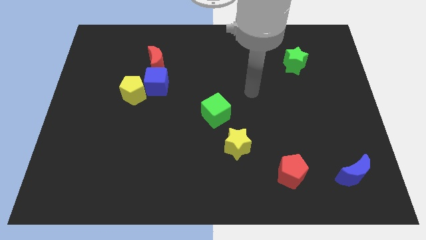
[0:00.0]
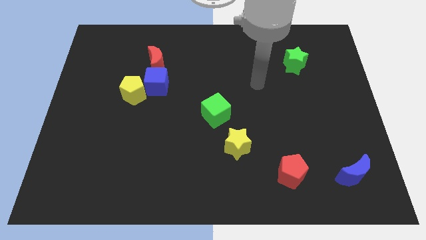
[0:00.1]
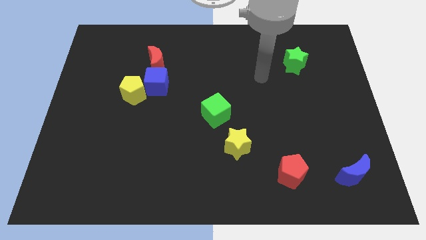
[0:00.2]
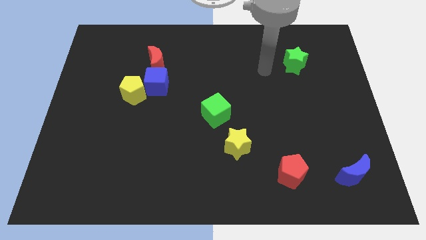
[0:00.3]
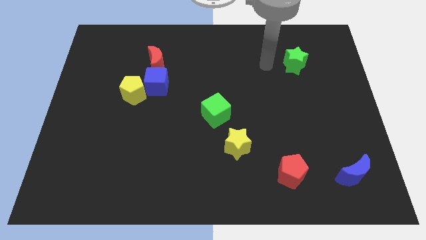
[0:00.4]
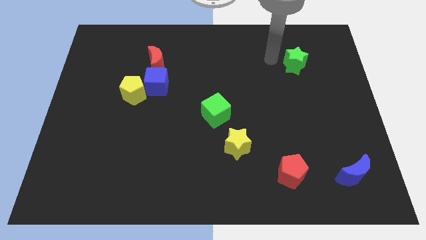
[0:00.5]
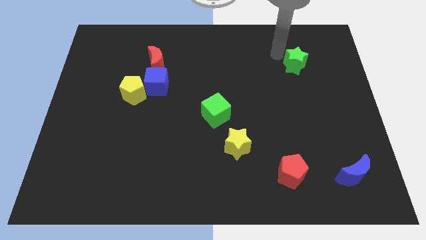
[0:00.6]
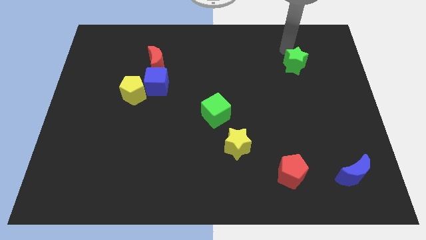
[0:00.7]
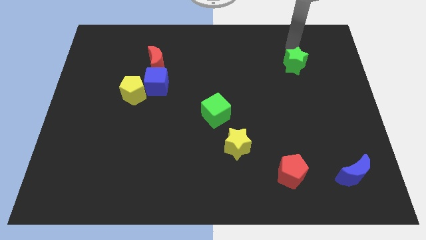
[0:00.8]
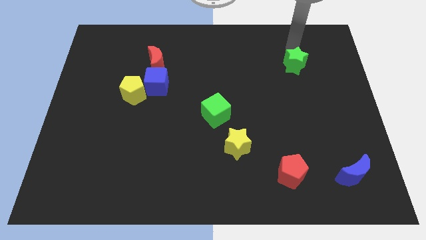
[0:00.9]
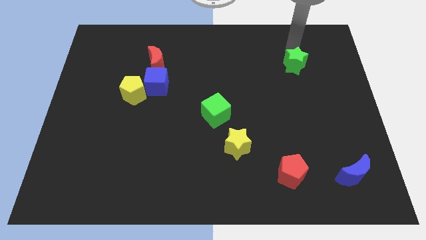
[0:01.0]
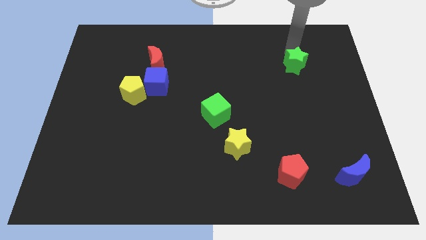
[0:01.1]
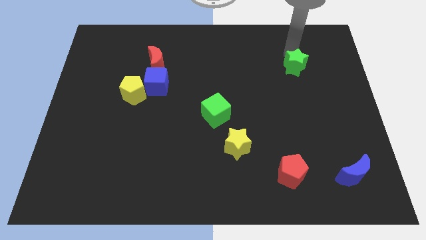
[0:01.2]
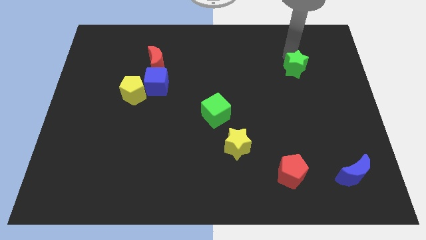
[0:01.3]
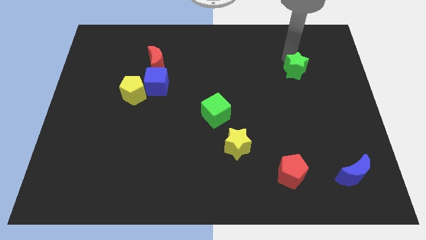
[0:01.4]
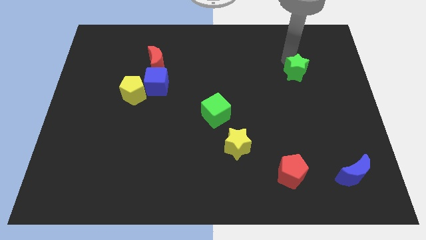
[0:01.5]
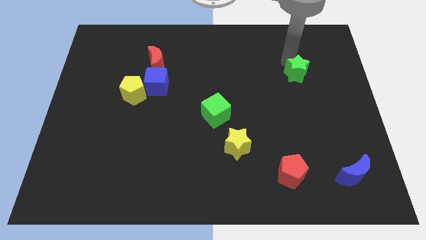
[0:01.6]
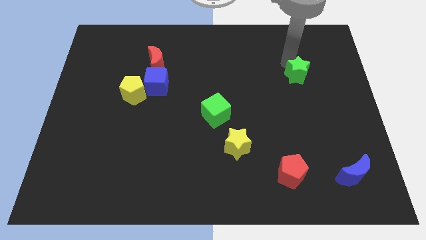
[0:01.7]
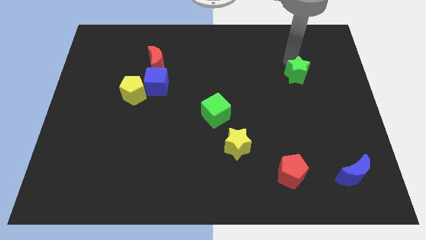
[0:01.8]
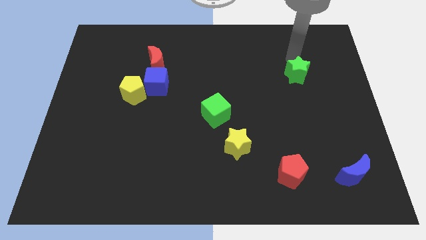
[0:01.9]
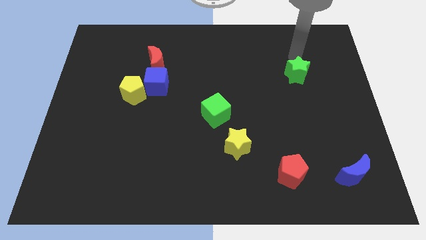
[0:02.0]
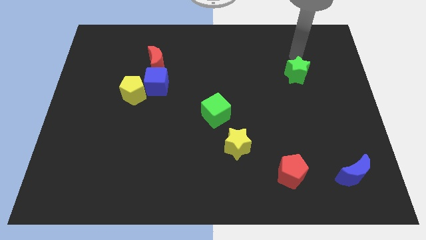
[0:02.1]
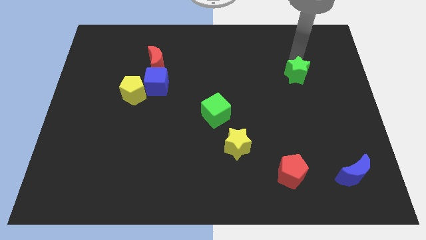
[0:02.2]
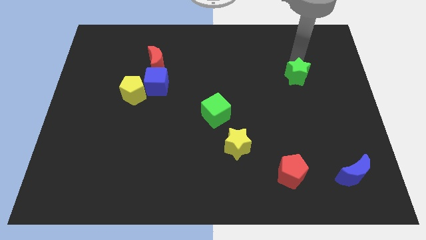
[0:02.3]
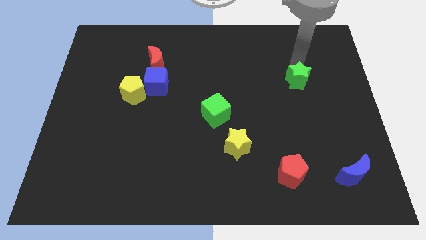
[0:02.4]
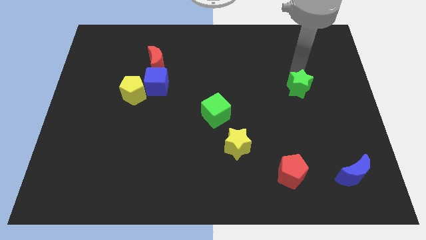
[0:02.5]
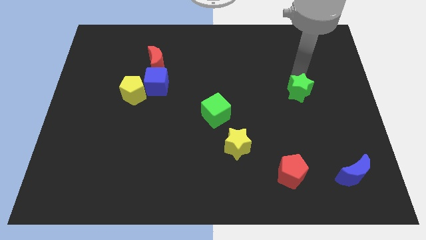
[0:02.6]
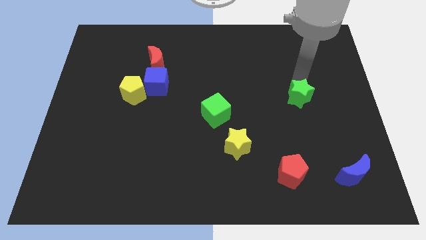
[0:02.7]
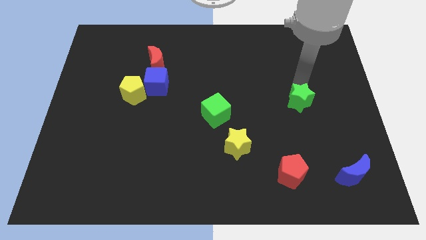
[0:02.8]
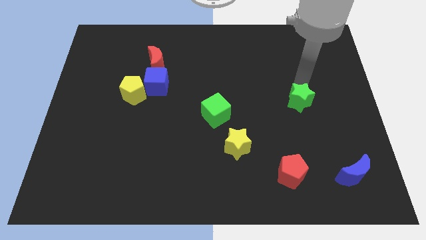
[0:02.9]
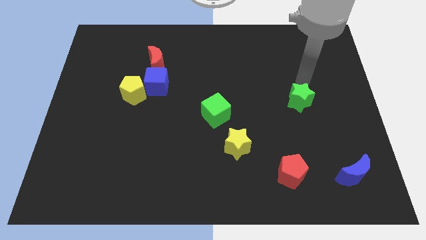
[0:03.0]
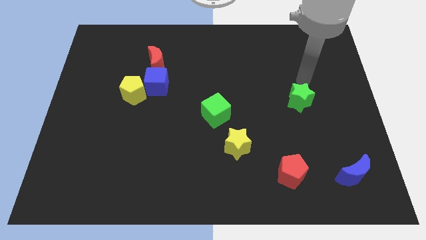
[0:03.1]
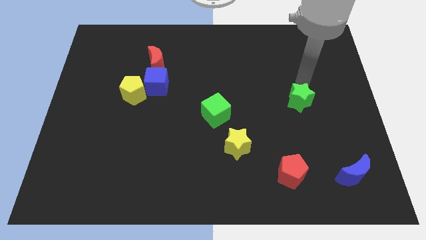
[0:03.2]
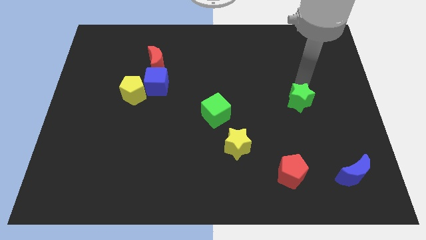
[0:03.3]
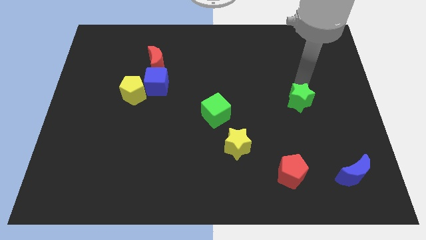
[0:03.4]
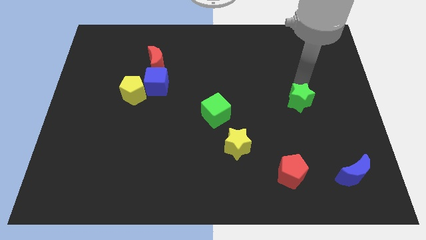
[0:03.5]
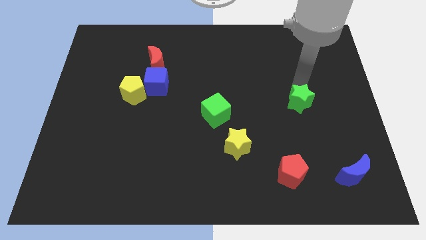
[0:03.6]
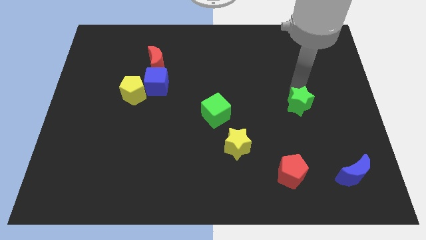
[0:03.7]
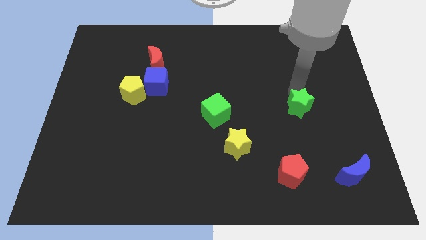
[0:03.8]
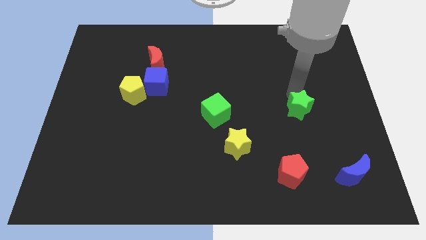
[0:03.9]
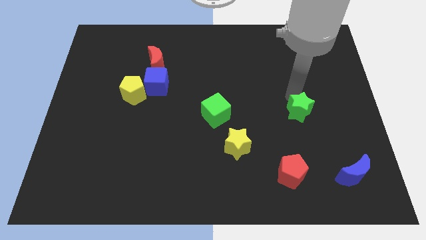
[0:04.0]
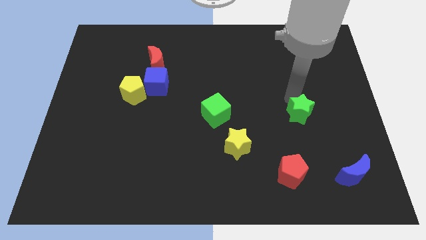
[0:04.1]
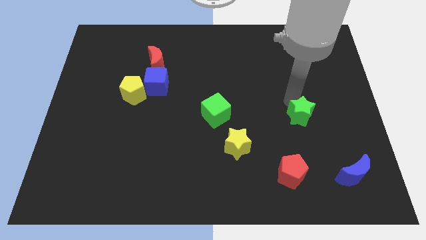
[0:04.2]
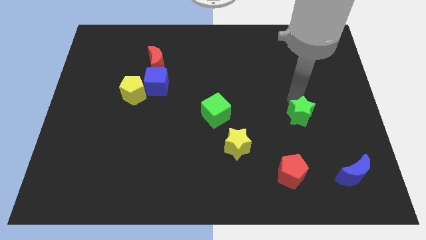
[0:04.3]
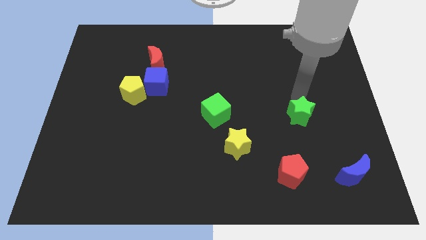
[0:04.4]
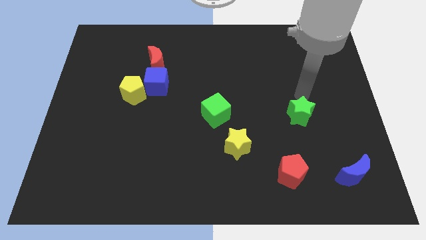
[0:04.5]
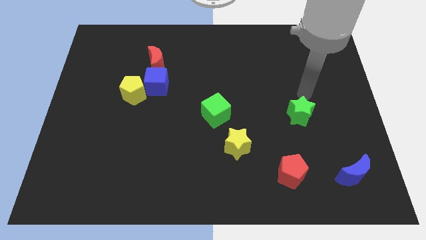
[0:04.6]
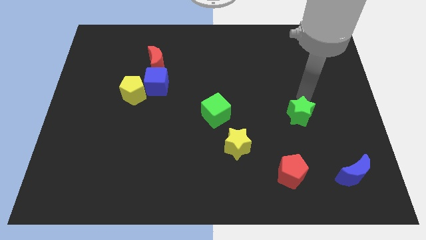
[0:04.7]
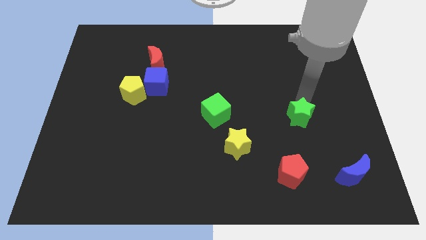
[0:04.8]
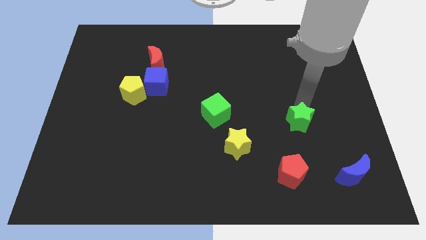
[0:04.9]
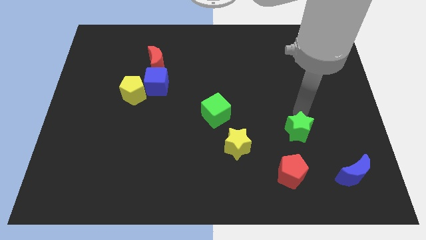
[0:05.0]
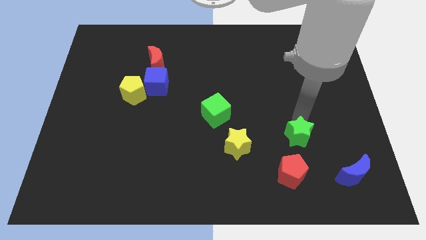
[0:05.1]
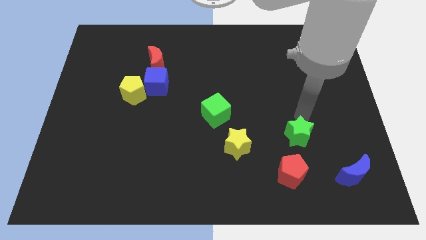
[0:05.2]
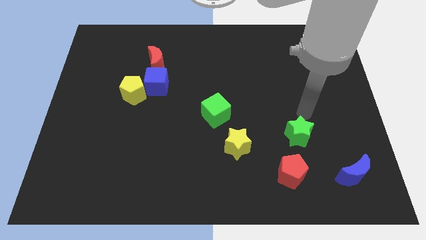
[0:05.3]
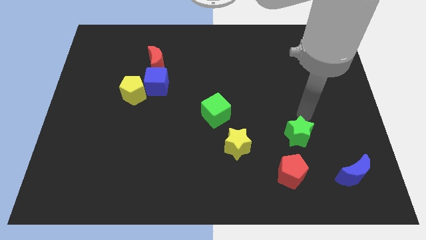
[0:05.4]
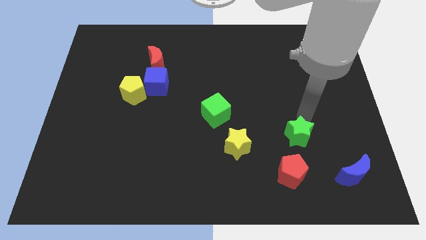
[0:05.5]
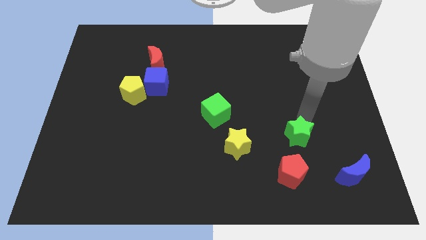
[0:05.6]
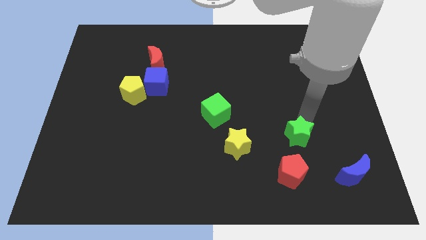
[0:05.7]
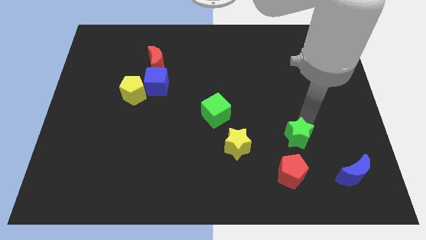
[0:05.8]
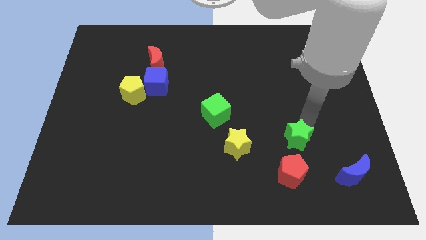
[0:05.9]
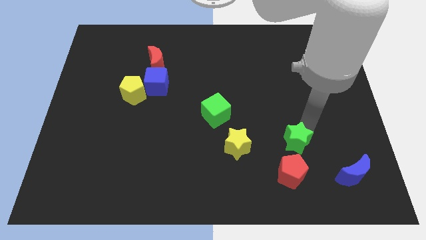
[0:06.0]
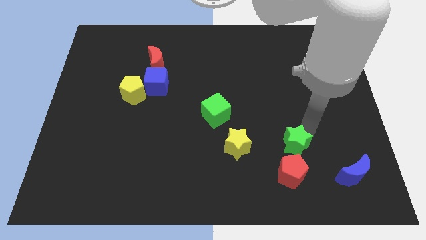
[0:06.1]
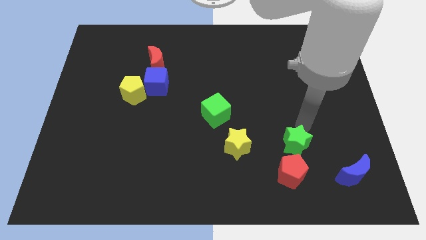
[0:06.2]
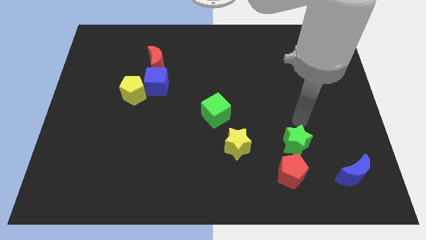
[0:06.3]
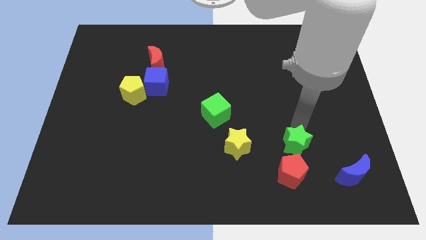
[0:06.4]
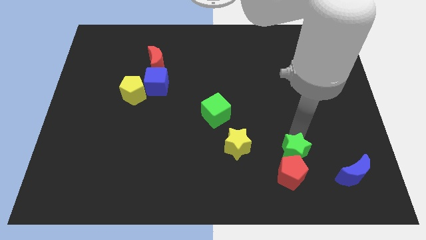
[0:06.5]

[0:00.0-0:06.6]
slide the green star towards the red pentagon
